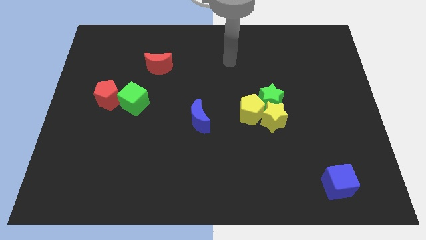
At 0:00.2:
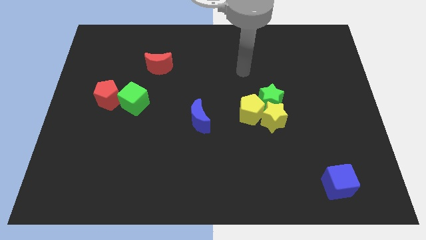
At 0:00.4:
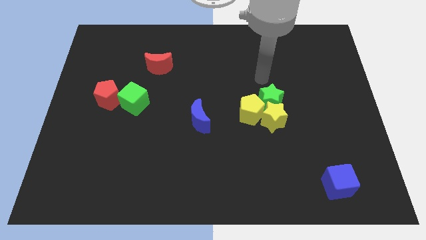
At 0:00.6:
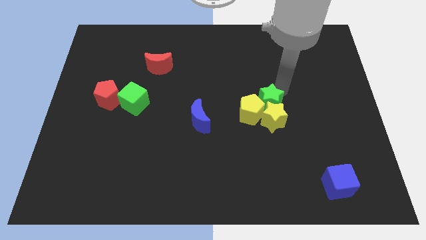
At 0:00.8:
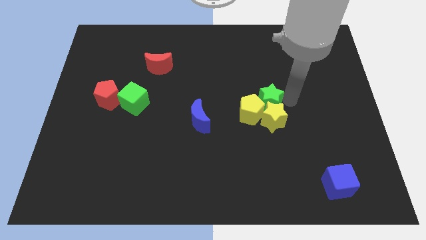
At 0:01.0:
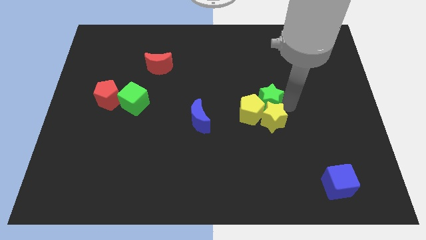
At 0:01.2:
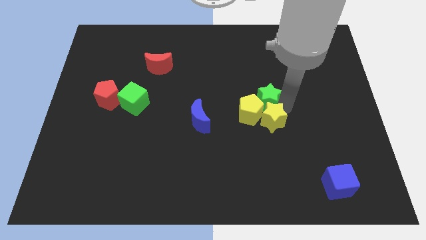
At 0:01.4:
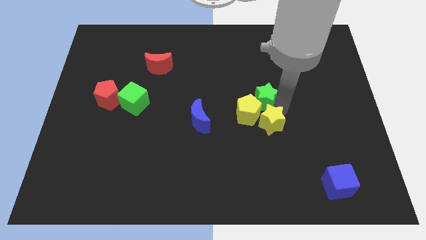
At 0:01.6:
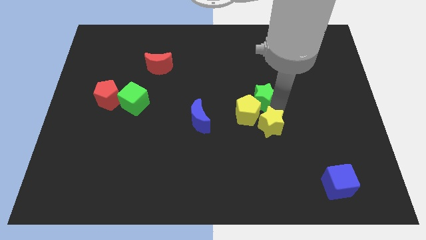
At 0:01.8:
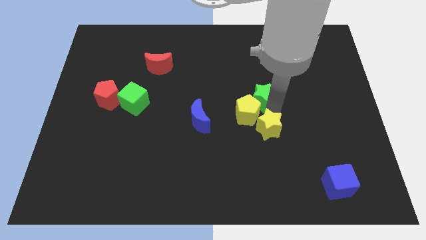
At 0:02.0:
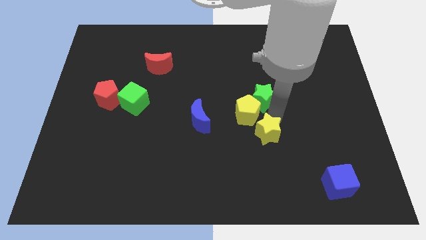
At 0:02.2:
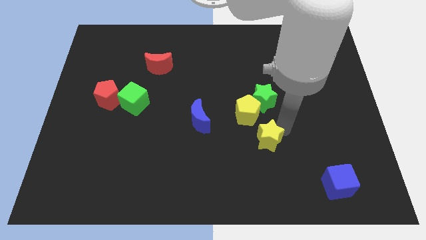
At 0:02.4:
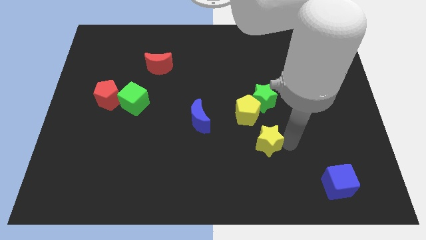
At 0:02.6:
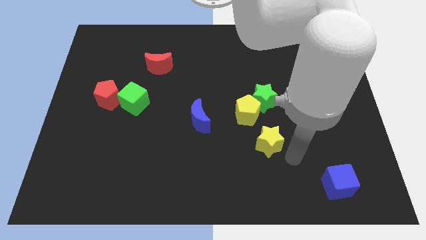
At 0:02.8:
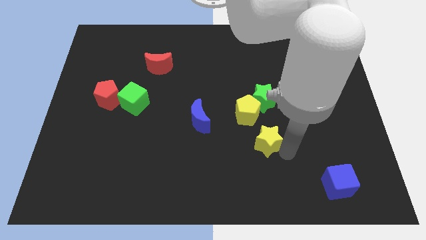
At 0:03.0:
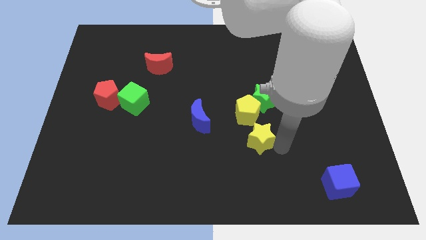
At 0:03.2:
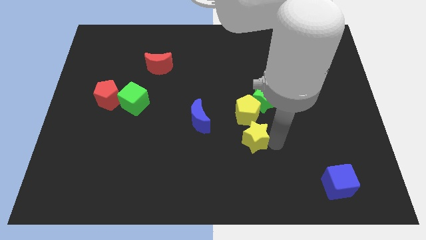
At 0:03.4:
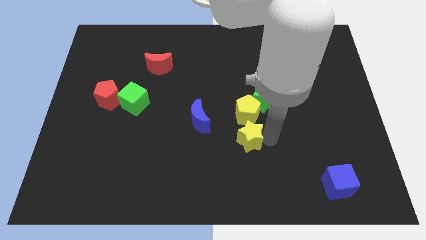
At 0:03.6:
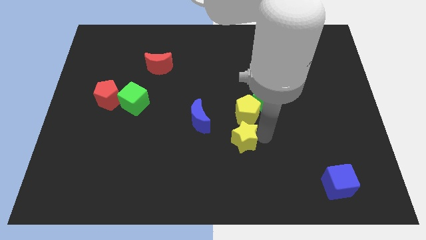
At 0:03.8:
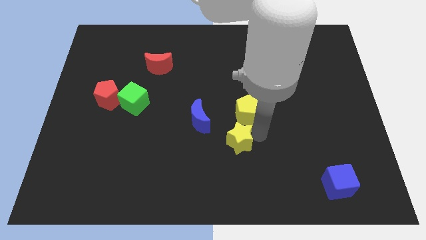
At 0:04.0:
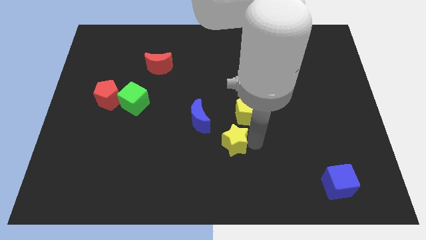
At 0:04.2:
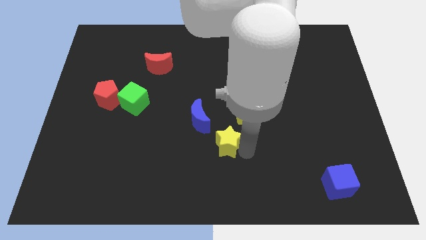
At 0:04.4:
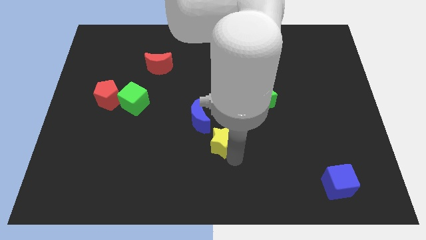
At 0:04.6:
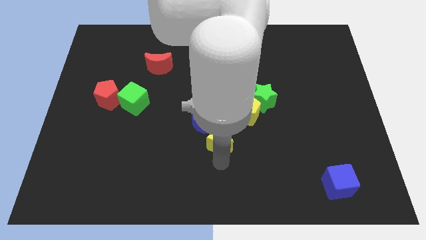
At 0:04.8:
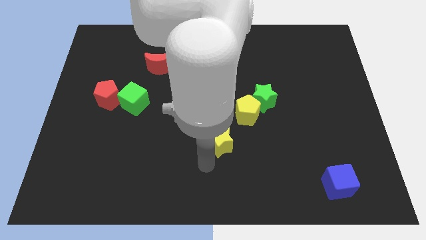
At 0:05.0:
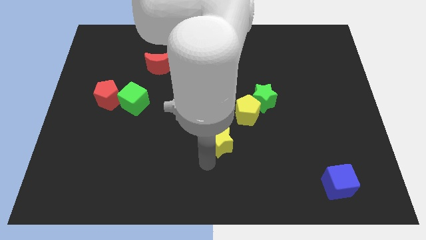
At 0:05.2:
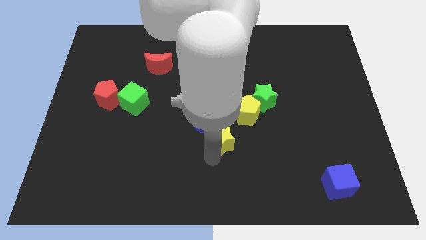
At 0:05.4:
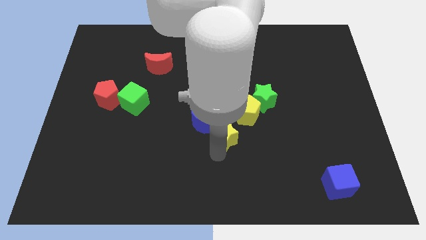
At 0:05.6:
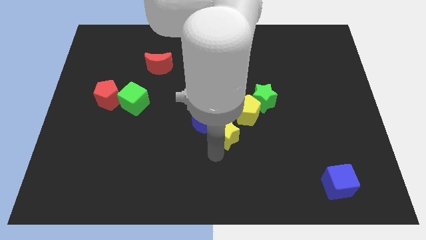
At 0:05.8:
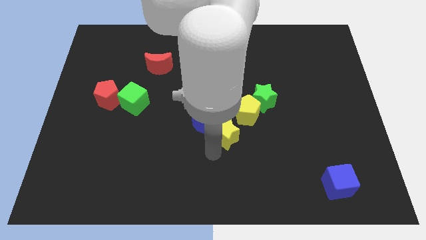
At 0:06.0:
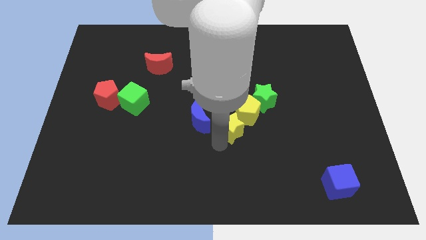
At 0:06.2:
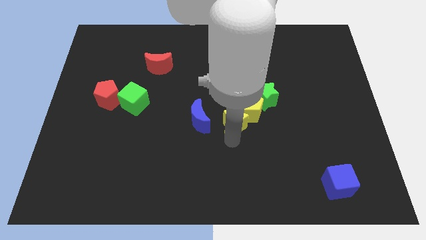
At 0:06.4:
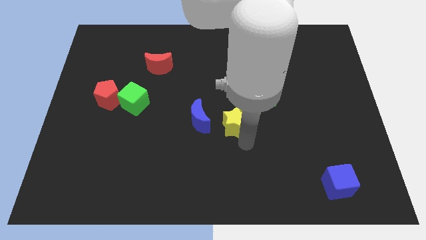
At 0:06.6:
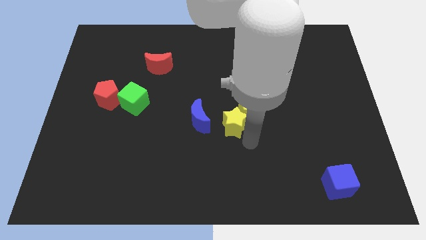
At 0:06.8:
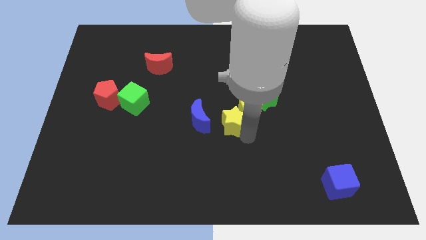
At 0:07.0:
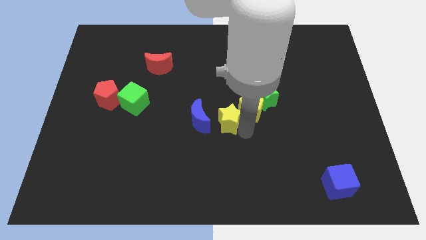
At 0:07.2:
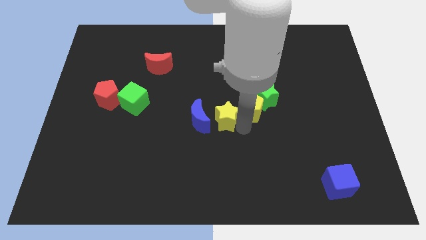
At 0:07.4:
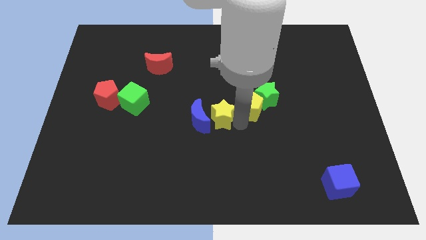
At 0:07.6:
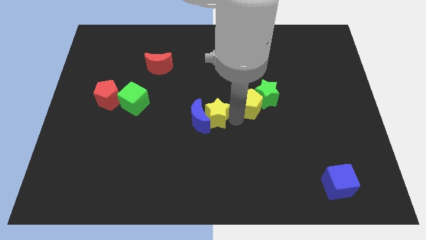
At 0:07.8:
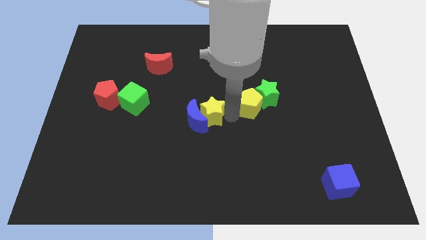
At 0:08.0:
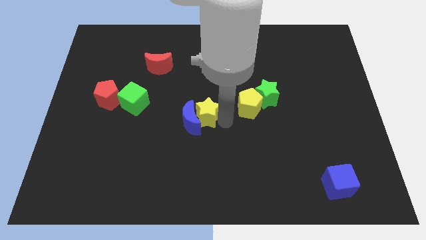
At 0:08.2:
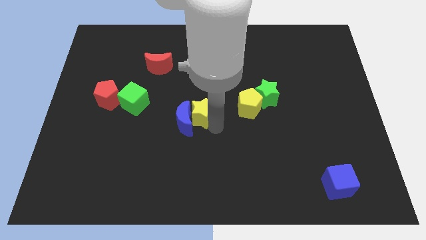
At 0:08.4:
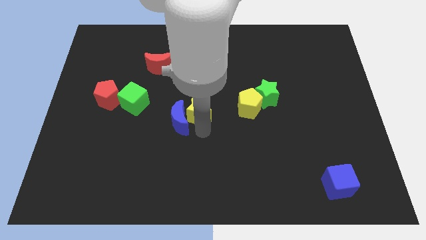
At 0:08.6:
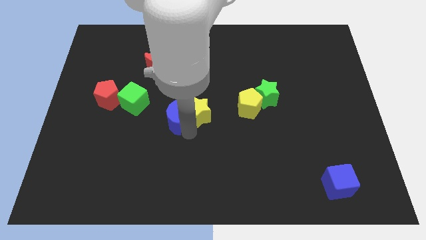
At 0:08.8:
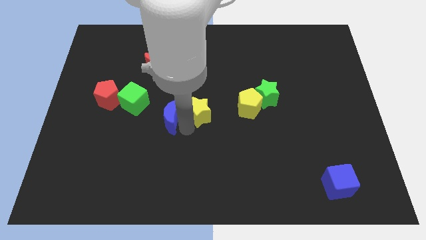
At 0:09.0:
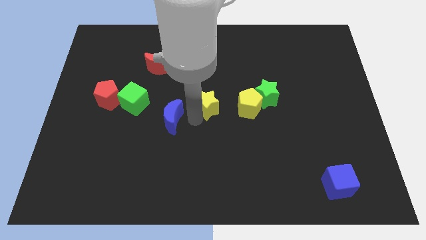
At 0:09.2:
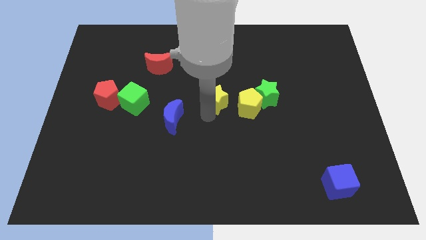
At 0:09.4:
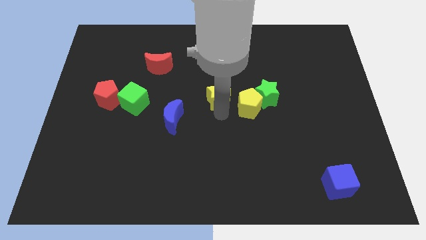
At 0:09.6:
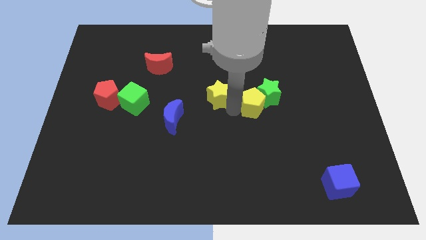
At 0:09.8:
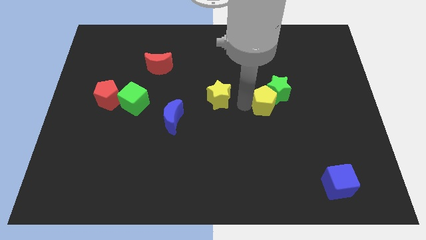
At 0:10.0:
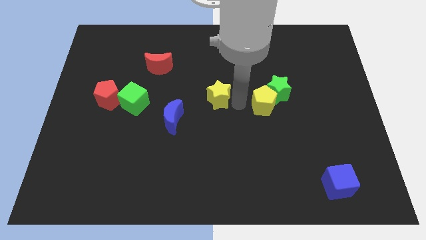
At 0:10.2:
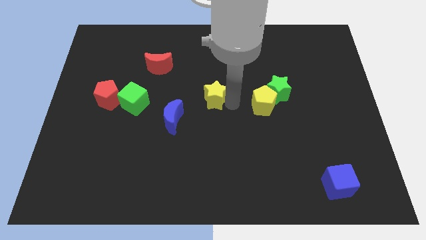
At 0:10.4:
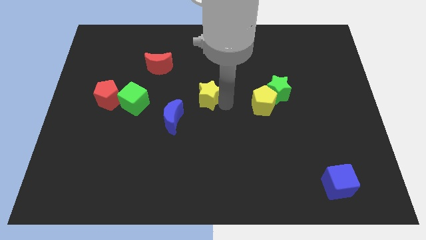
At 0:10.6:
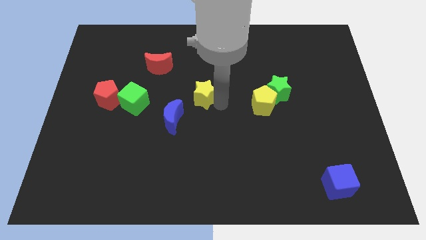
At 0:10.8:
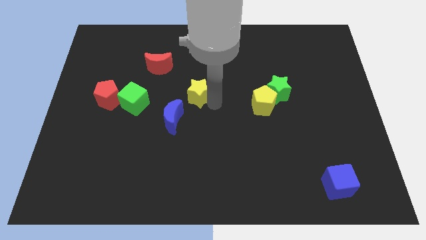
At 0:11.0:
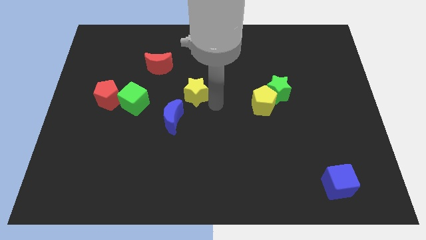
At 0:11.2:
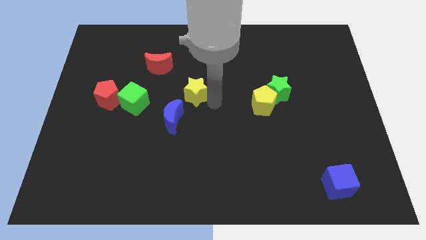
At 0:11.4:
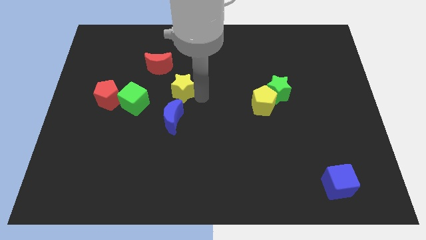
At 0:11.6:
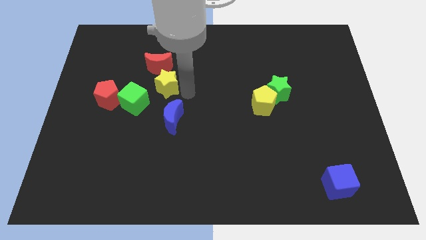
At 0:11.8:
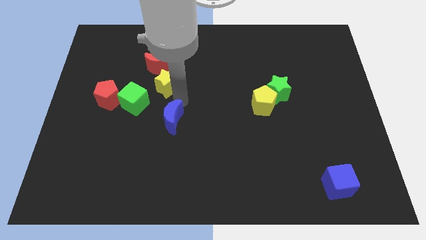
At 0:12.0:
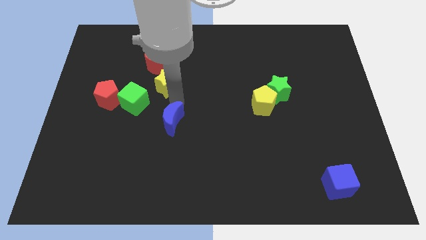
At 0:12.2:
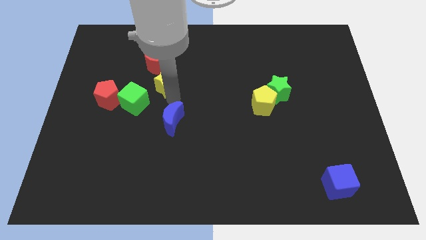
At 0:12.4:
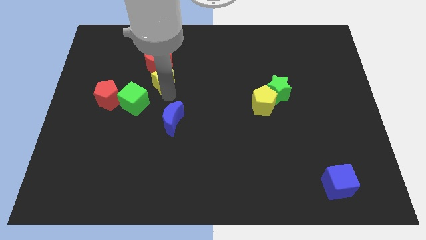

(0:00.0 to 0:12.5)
slide the yellow star next to the red moon

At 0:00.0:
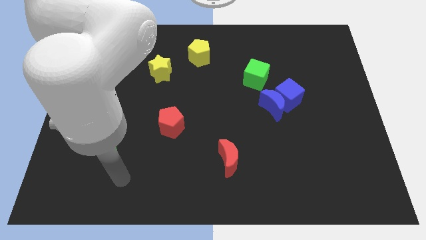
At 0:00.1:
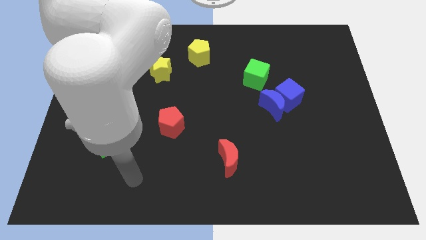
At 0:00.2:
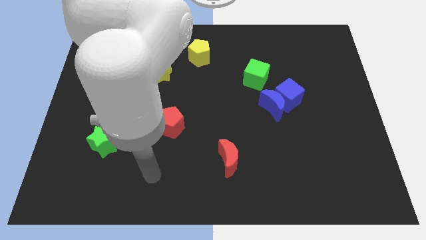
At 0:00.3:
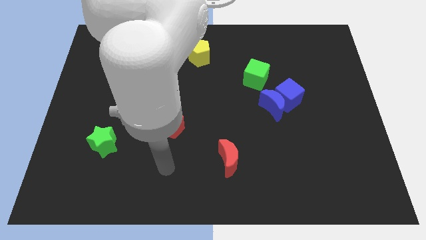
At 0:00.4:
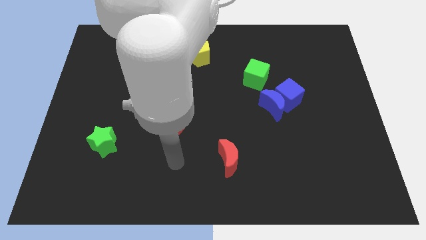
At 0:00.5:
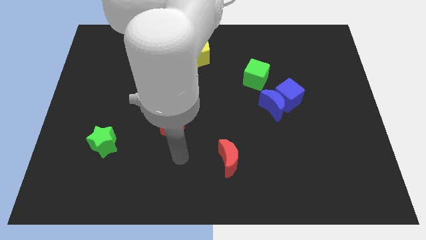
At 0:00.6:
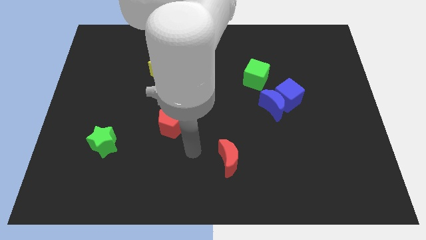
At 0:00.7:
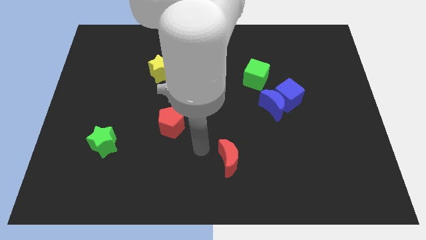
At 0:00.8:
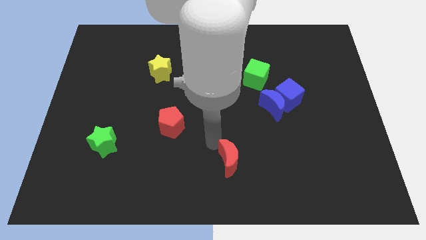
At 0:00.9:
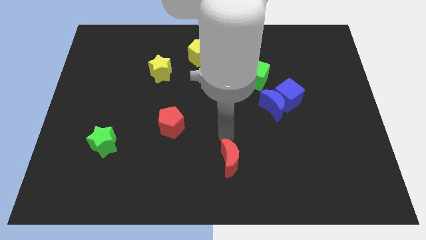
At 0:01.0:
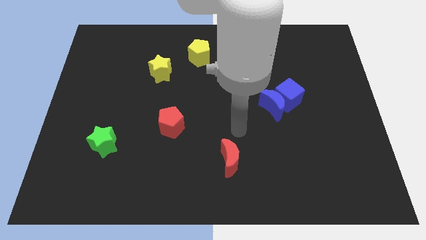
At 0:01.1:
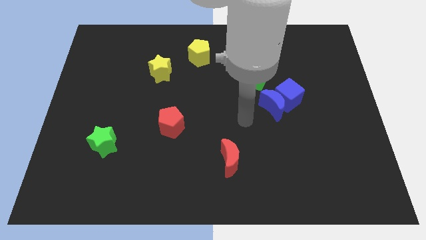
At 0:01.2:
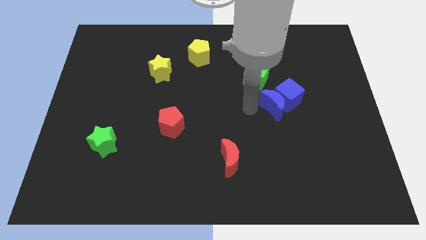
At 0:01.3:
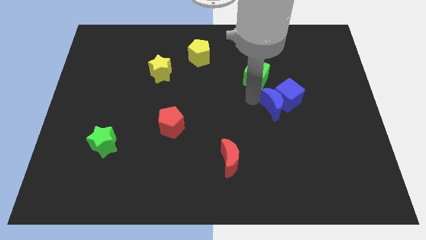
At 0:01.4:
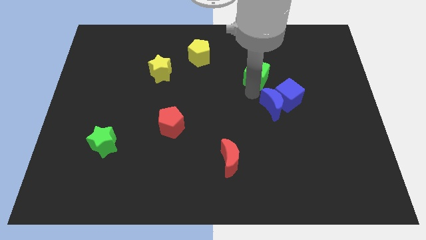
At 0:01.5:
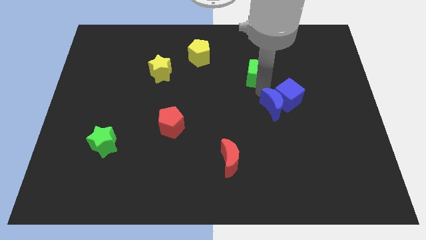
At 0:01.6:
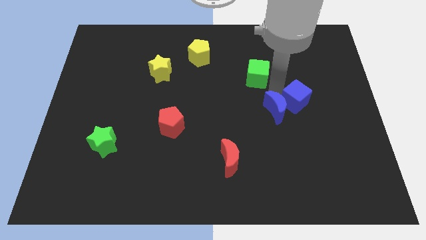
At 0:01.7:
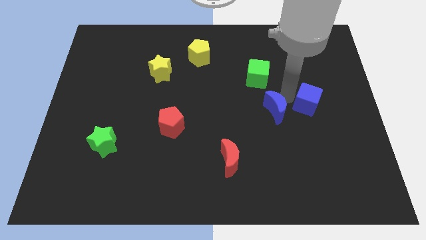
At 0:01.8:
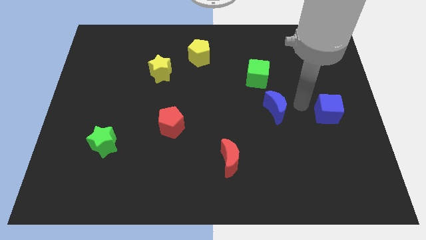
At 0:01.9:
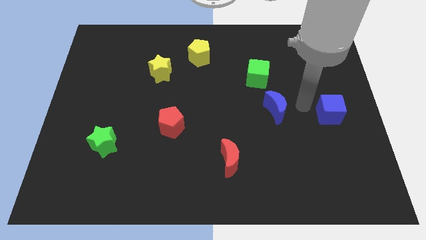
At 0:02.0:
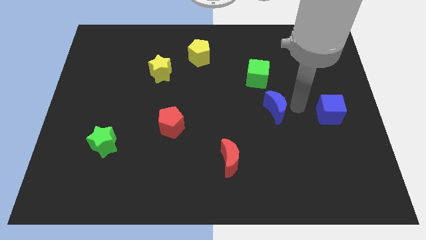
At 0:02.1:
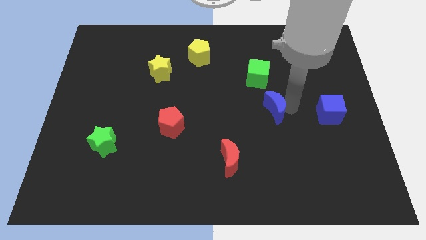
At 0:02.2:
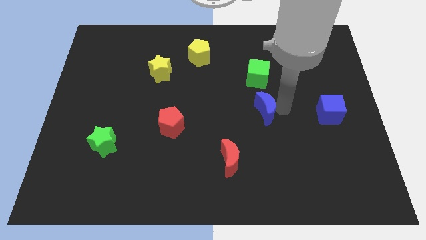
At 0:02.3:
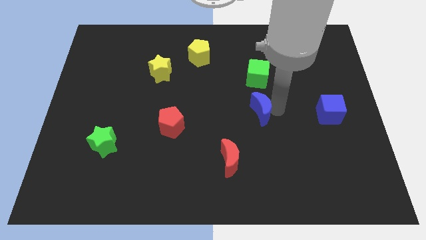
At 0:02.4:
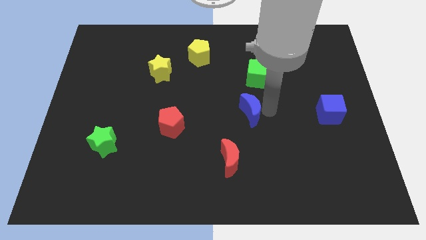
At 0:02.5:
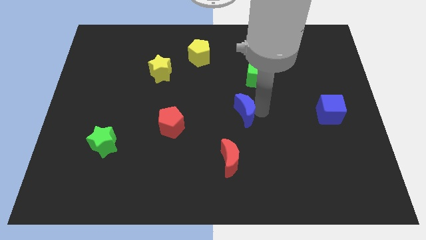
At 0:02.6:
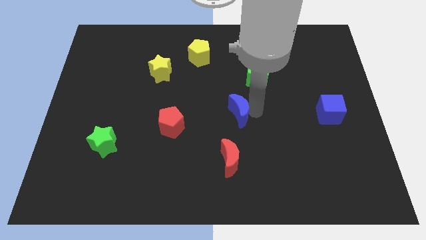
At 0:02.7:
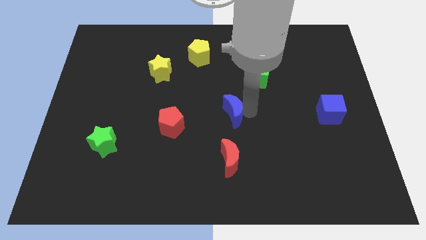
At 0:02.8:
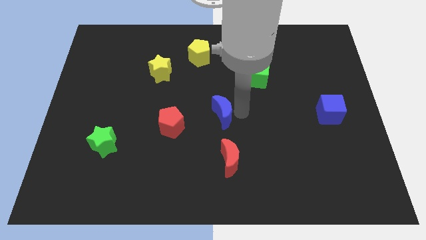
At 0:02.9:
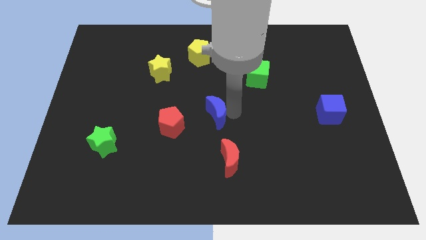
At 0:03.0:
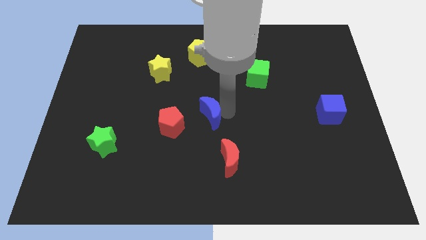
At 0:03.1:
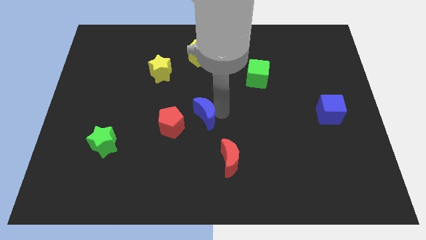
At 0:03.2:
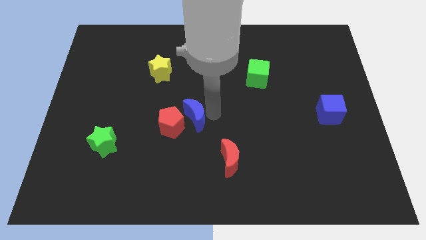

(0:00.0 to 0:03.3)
put the blue moon next to the red pentagon
